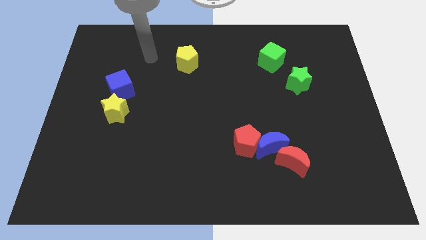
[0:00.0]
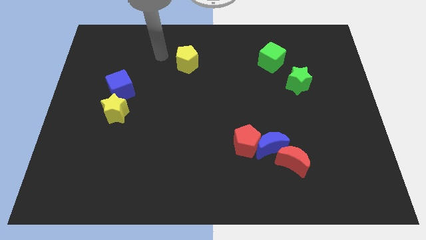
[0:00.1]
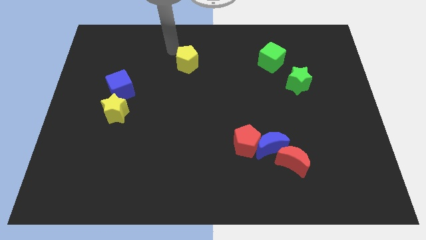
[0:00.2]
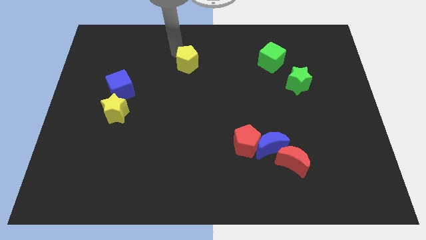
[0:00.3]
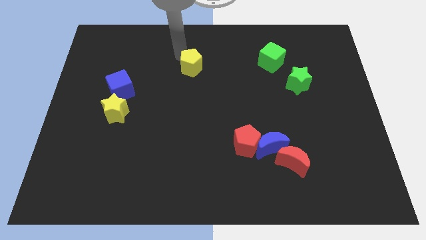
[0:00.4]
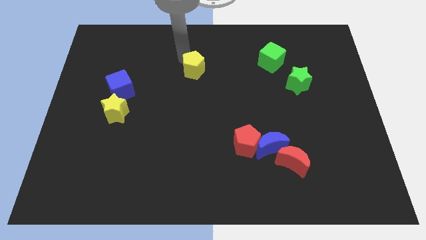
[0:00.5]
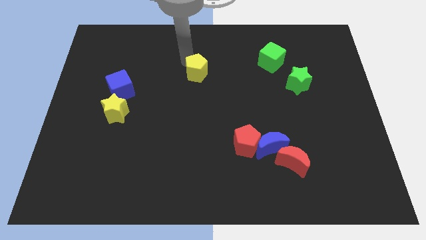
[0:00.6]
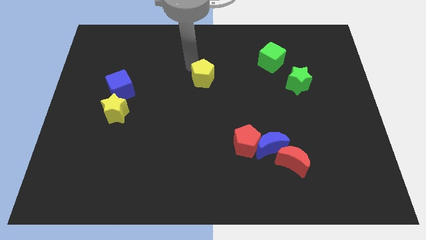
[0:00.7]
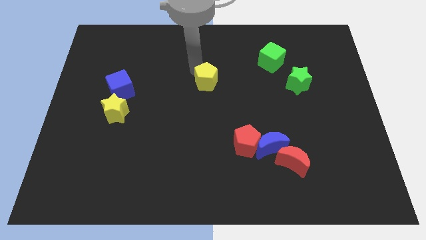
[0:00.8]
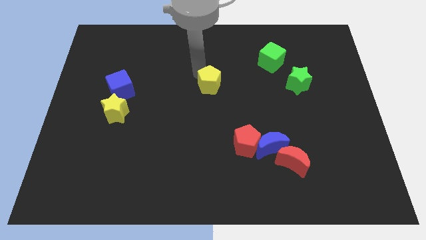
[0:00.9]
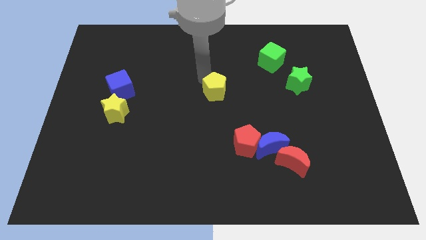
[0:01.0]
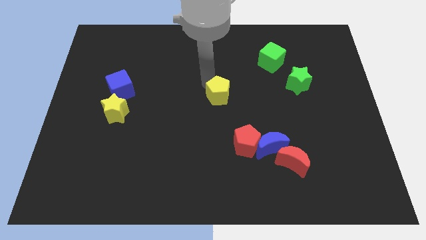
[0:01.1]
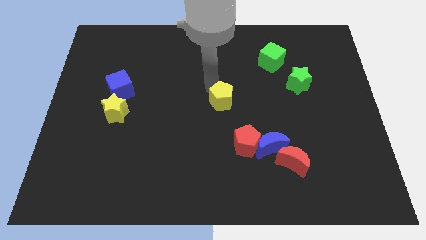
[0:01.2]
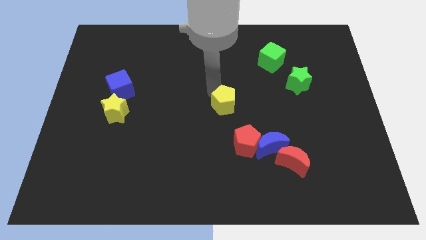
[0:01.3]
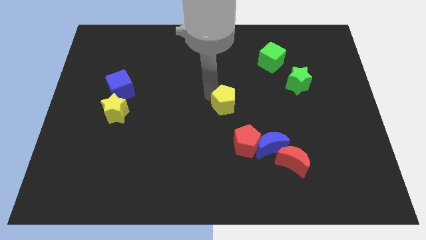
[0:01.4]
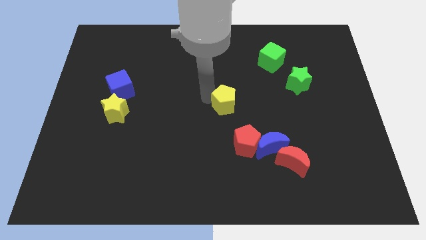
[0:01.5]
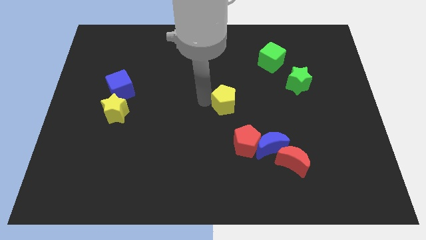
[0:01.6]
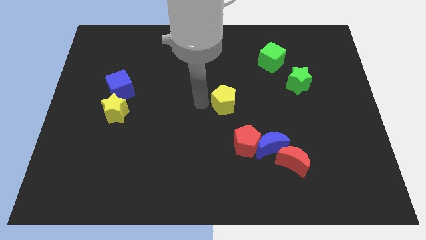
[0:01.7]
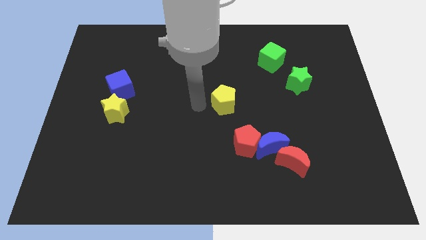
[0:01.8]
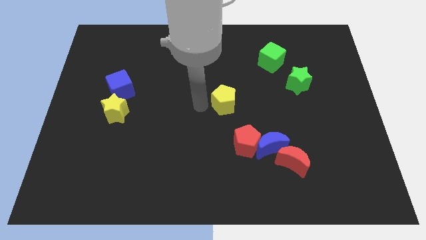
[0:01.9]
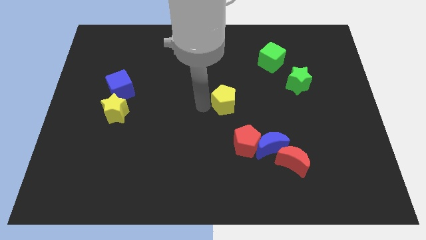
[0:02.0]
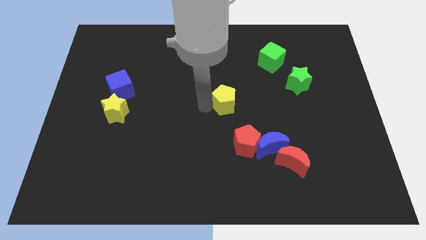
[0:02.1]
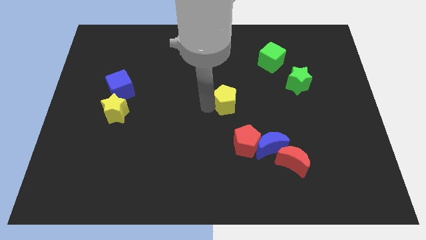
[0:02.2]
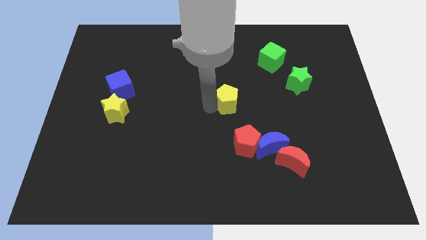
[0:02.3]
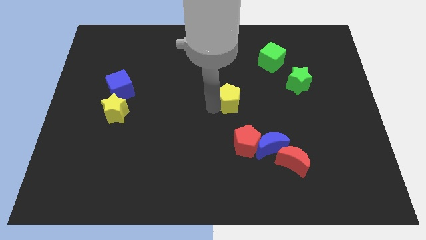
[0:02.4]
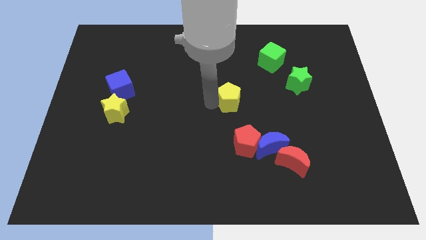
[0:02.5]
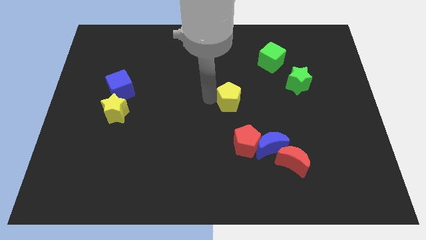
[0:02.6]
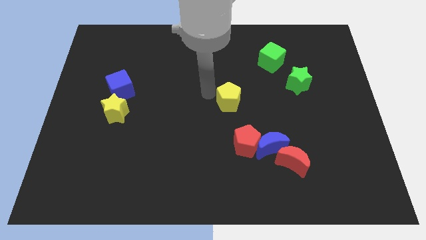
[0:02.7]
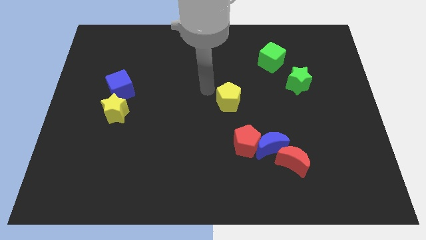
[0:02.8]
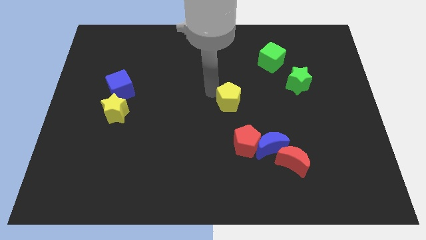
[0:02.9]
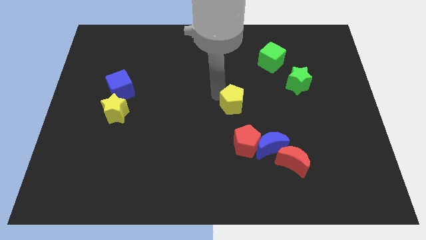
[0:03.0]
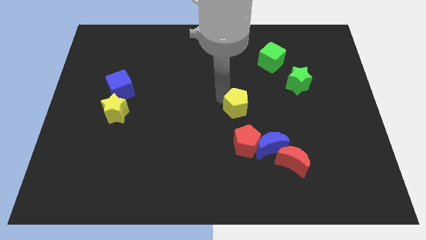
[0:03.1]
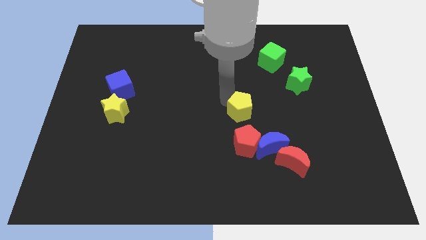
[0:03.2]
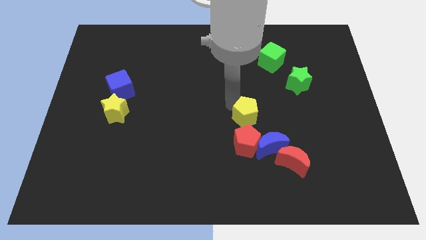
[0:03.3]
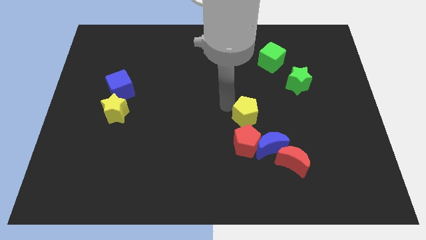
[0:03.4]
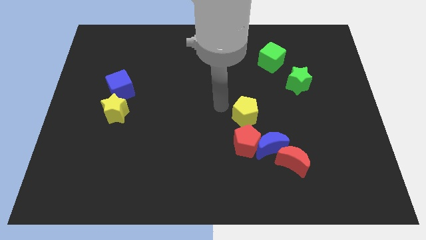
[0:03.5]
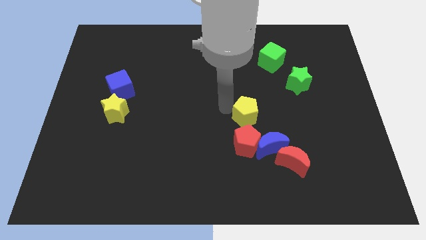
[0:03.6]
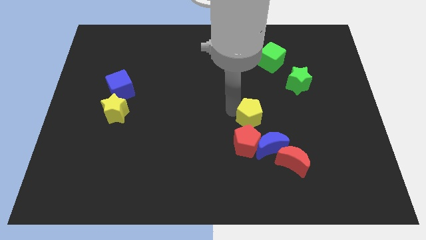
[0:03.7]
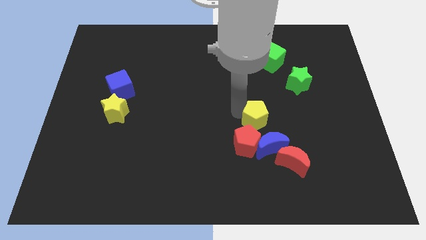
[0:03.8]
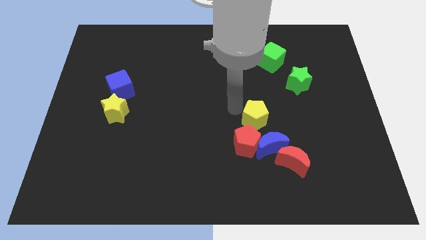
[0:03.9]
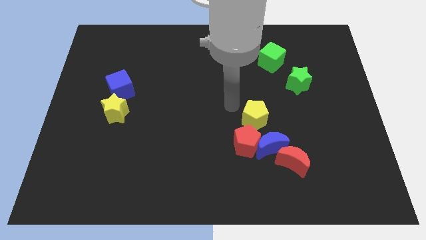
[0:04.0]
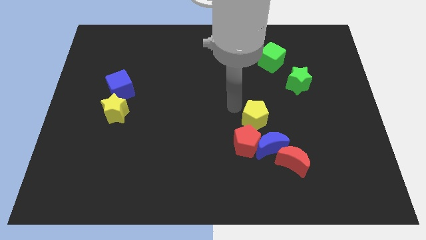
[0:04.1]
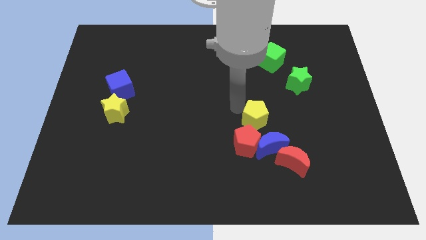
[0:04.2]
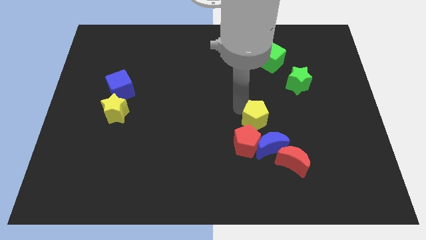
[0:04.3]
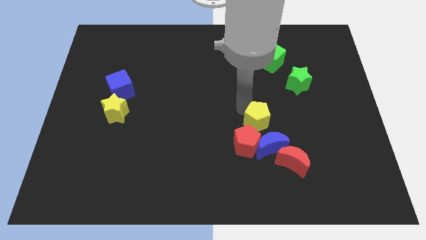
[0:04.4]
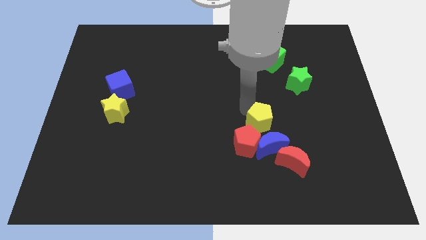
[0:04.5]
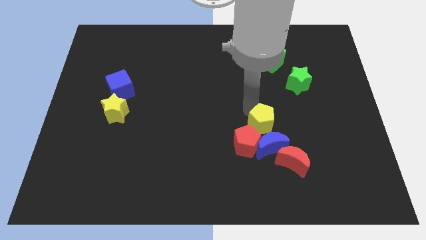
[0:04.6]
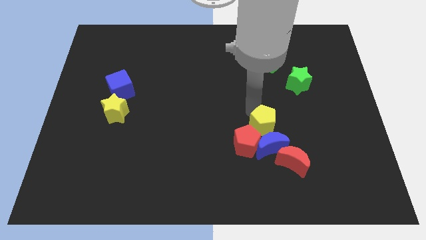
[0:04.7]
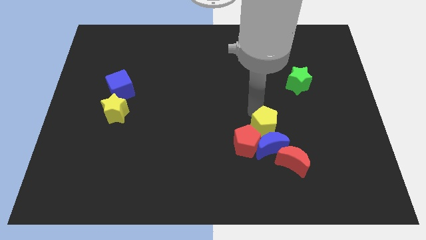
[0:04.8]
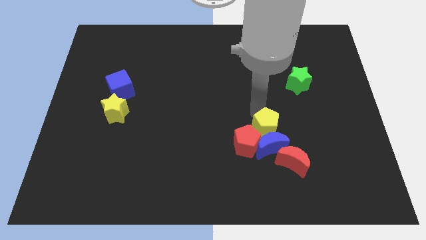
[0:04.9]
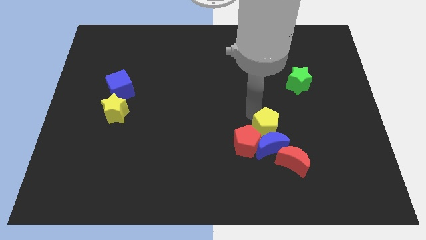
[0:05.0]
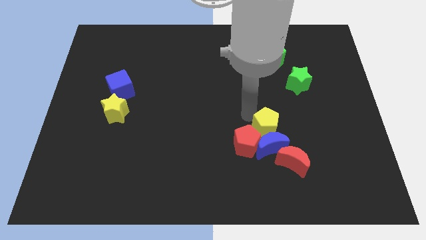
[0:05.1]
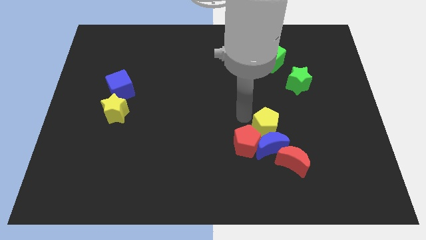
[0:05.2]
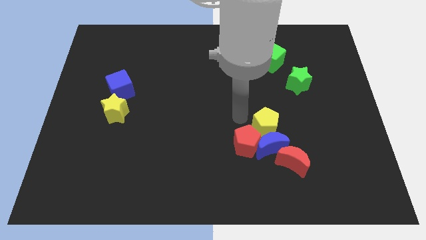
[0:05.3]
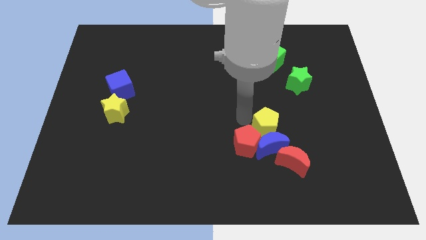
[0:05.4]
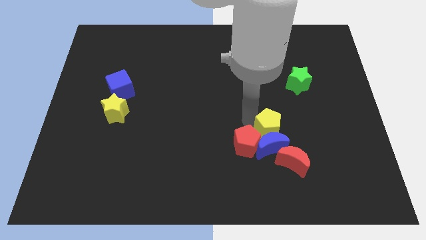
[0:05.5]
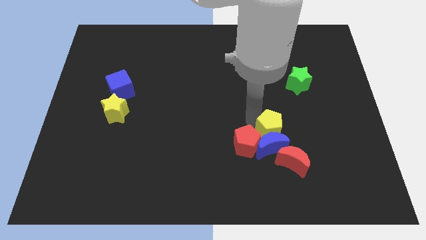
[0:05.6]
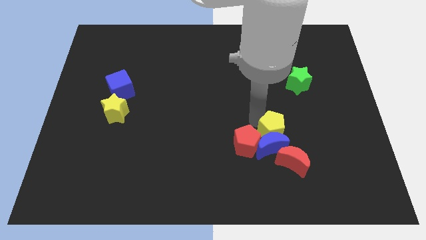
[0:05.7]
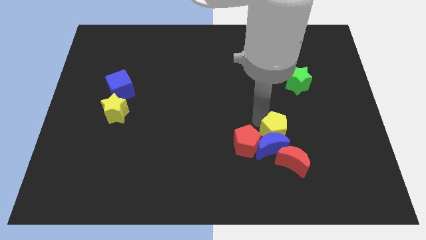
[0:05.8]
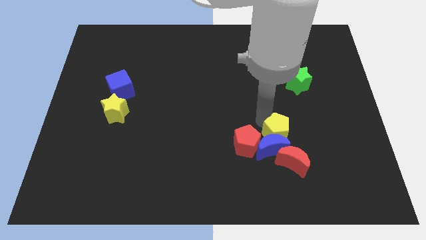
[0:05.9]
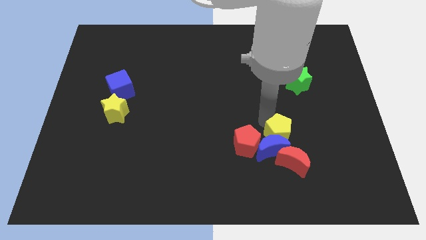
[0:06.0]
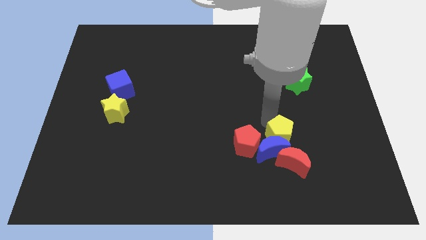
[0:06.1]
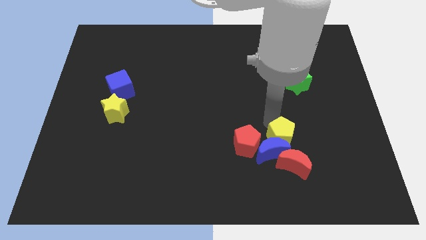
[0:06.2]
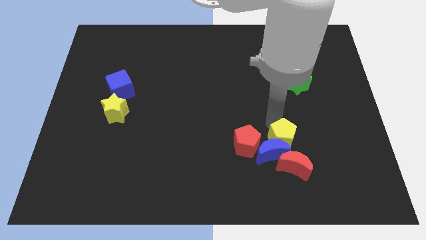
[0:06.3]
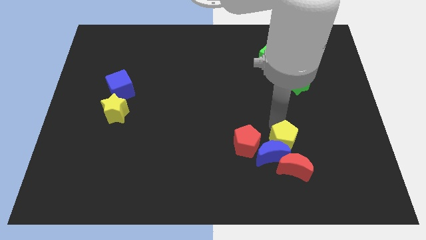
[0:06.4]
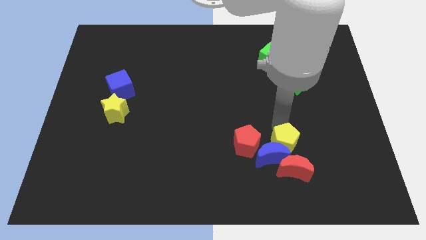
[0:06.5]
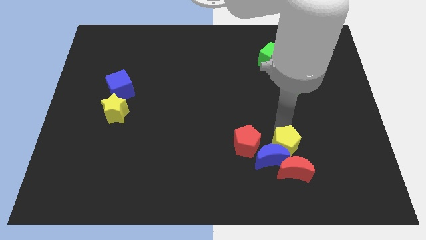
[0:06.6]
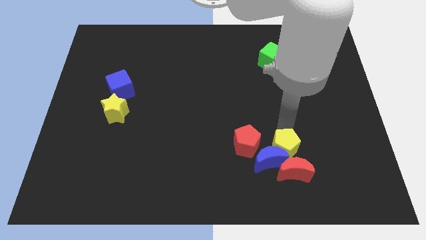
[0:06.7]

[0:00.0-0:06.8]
move the yellow pentagon next to the red moon

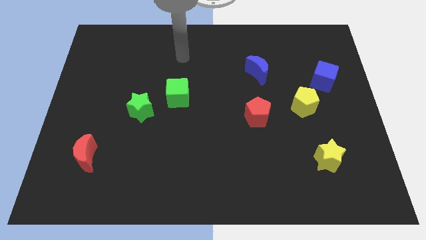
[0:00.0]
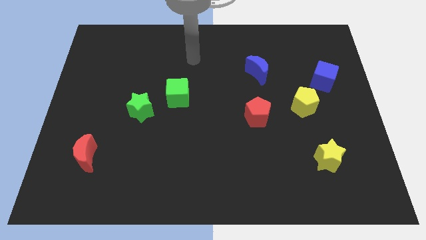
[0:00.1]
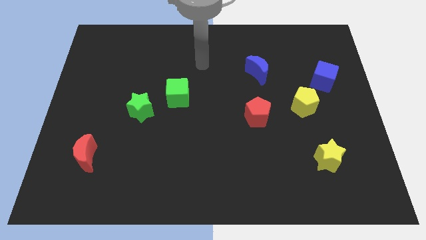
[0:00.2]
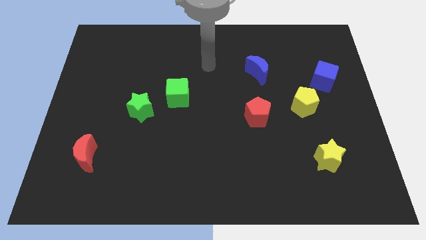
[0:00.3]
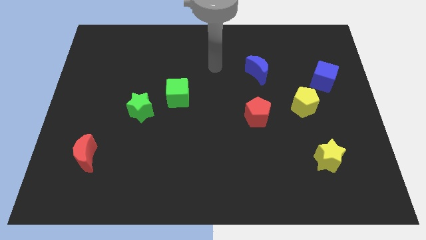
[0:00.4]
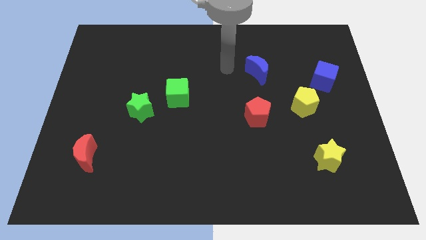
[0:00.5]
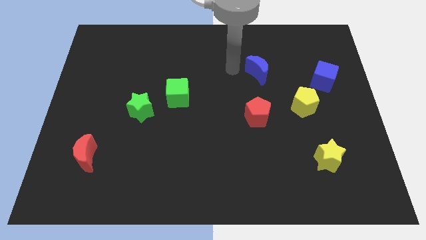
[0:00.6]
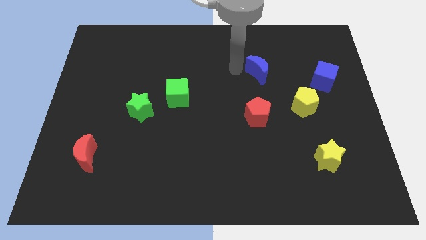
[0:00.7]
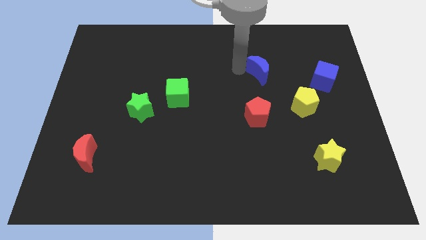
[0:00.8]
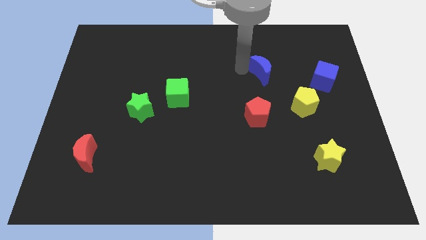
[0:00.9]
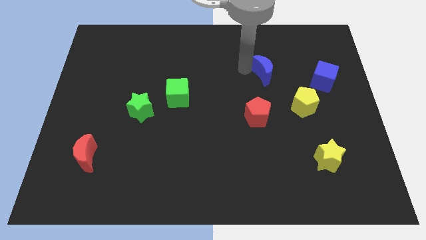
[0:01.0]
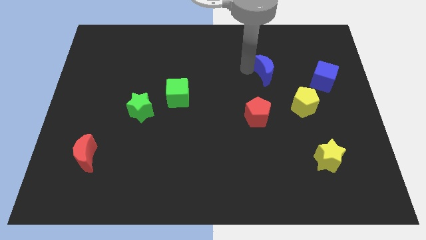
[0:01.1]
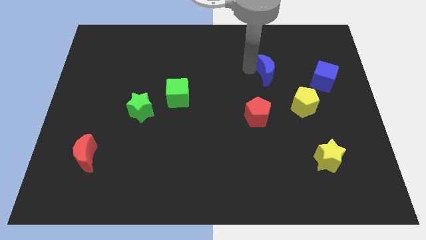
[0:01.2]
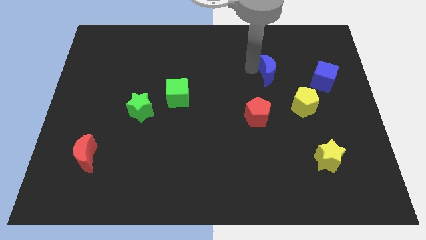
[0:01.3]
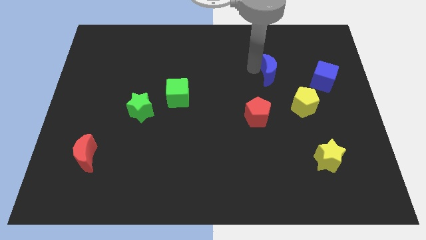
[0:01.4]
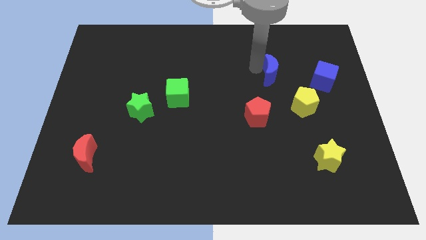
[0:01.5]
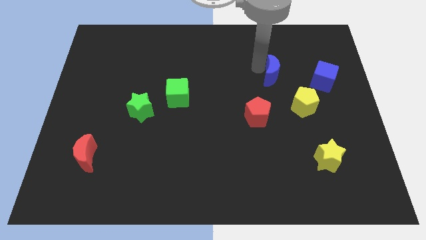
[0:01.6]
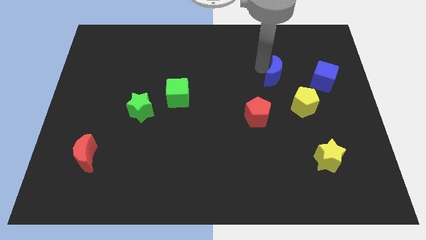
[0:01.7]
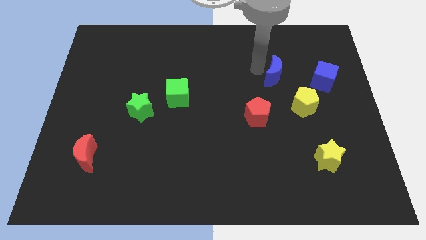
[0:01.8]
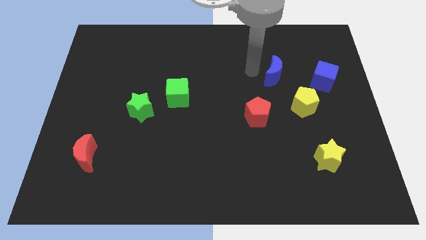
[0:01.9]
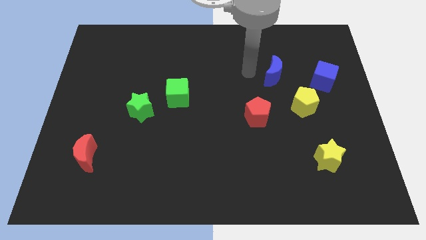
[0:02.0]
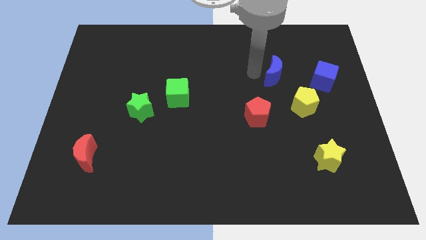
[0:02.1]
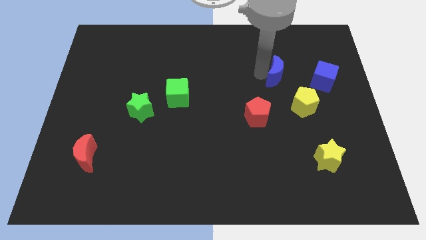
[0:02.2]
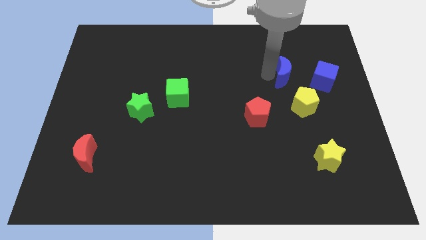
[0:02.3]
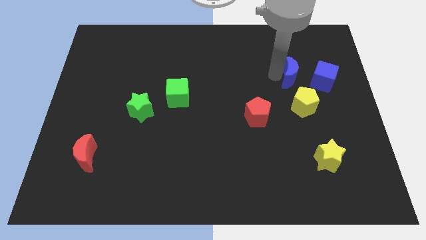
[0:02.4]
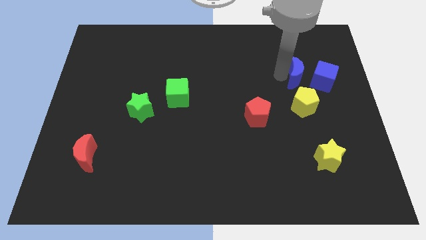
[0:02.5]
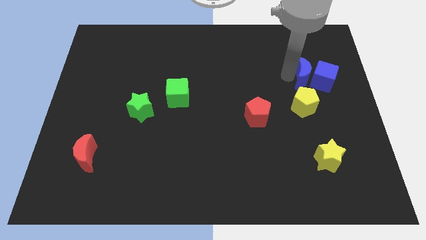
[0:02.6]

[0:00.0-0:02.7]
move the blue moon close to the blue cube
